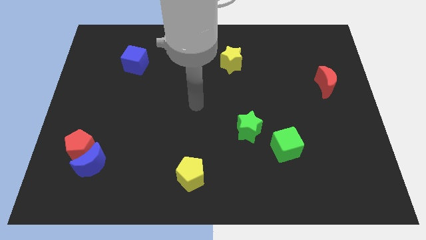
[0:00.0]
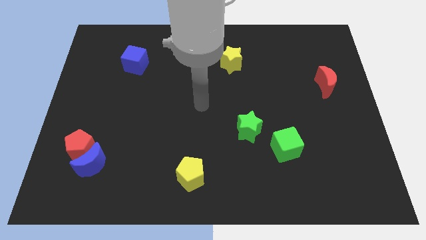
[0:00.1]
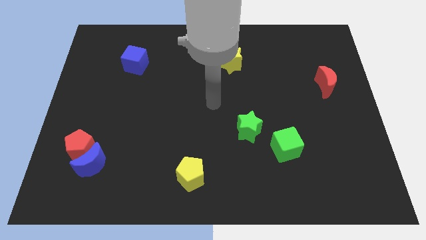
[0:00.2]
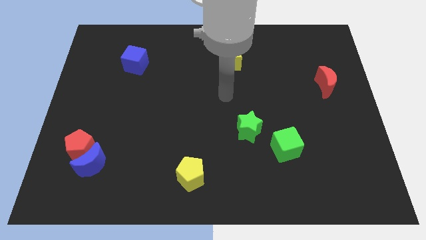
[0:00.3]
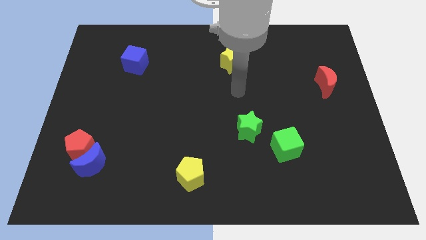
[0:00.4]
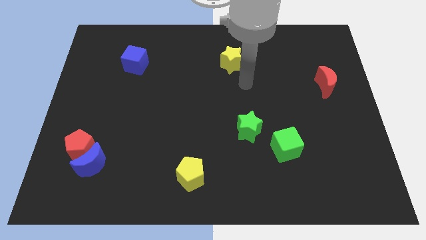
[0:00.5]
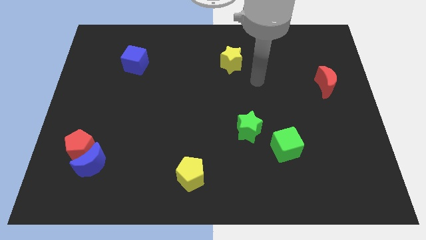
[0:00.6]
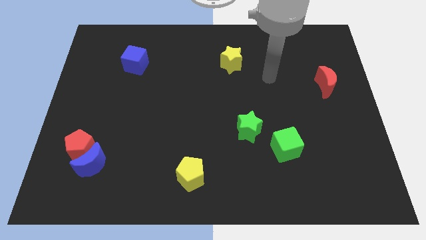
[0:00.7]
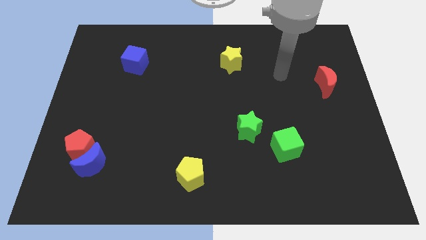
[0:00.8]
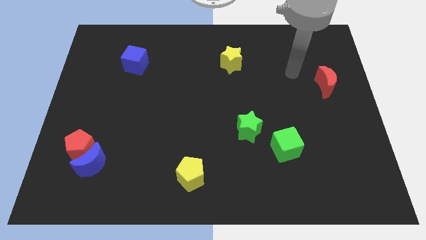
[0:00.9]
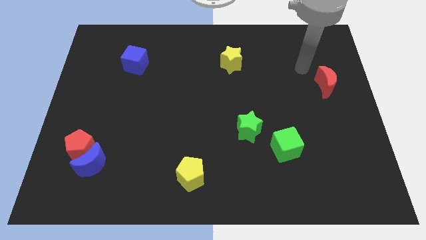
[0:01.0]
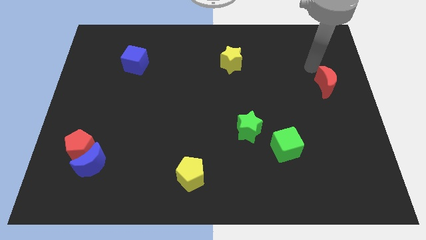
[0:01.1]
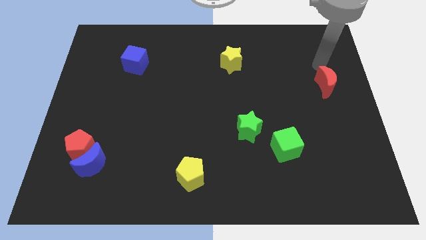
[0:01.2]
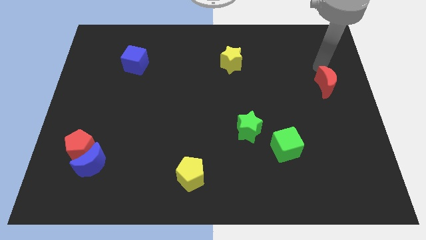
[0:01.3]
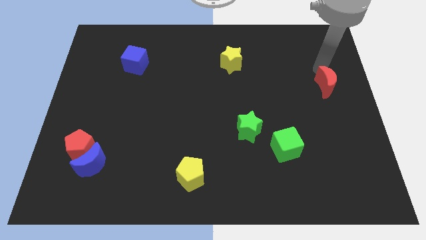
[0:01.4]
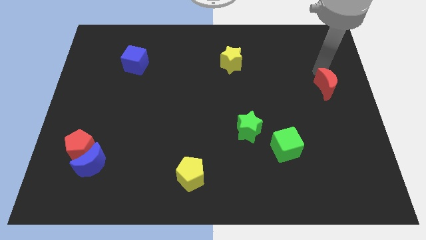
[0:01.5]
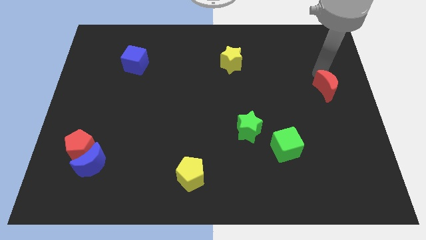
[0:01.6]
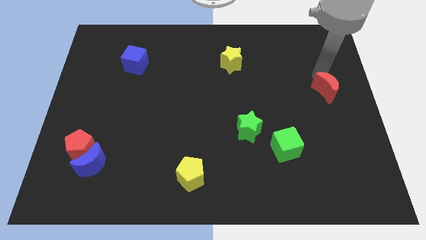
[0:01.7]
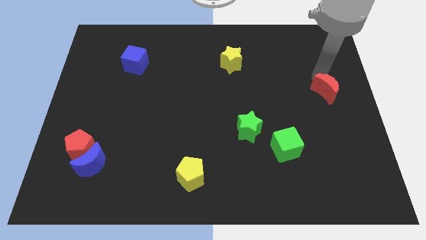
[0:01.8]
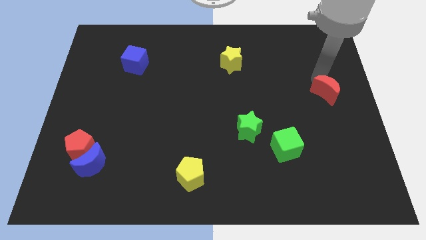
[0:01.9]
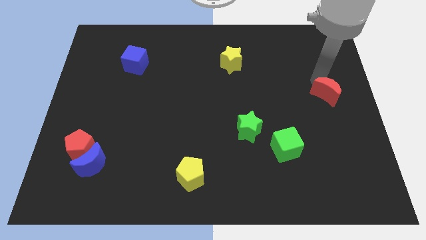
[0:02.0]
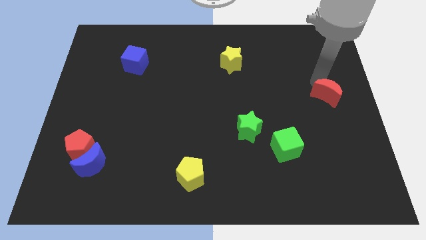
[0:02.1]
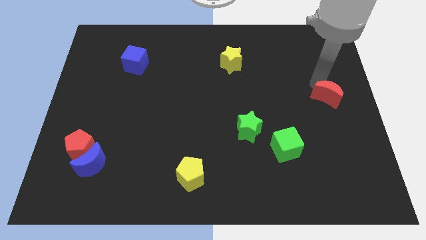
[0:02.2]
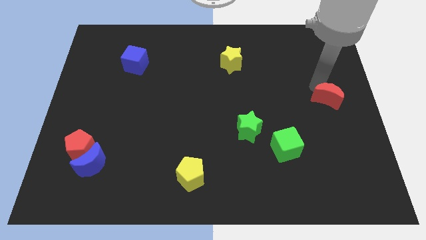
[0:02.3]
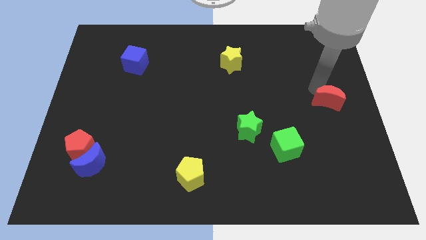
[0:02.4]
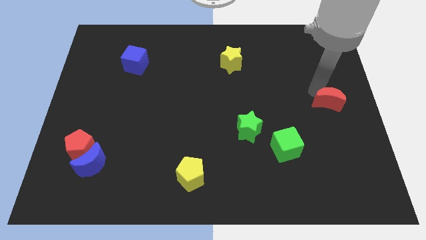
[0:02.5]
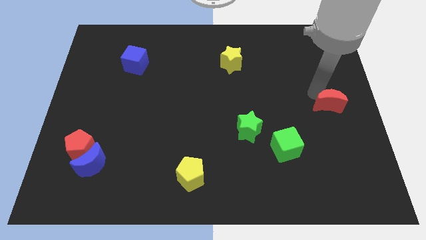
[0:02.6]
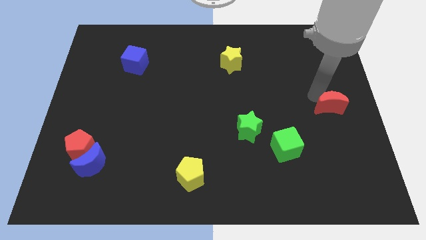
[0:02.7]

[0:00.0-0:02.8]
move the red moon downwards a little

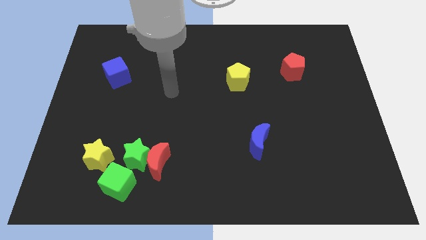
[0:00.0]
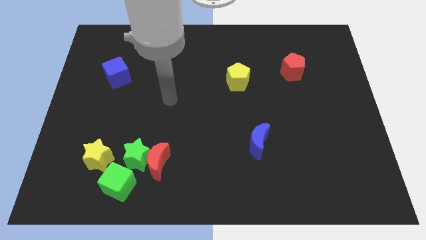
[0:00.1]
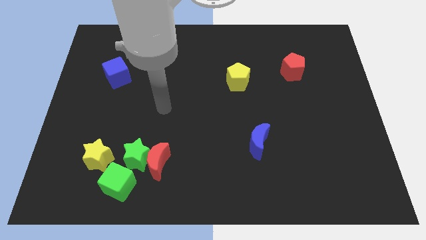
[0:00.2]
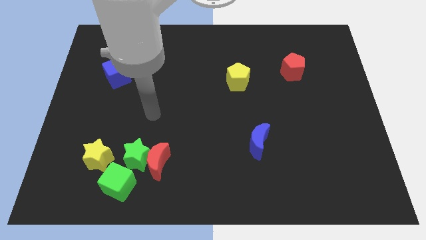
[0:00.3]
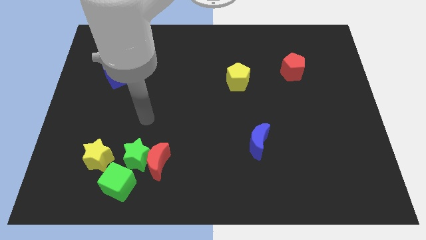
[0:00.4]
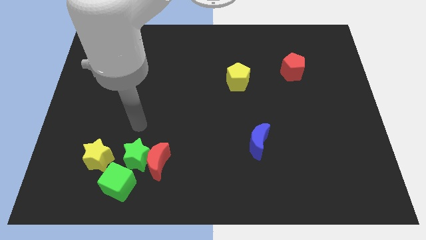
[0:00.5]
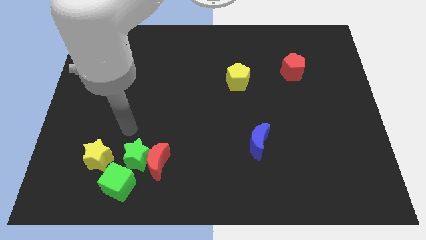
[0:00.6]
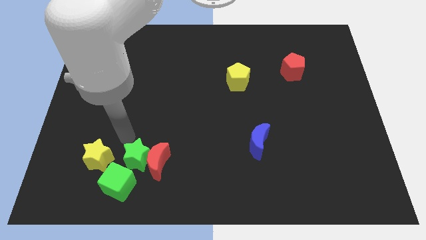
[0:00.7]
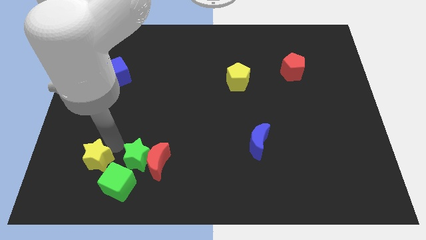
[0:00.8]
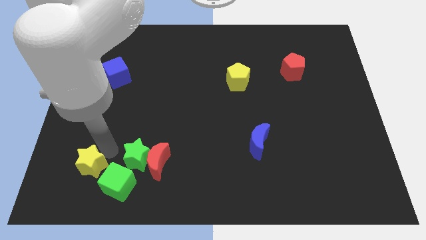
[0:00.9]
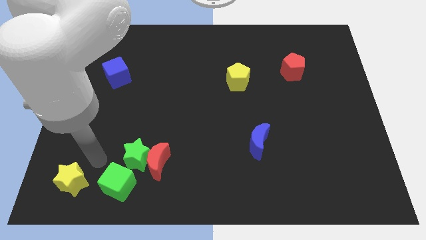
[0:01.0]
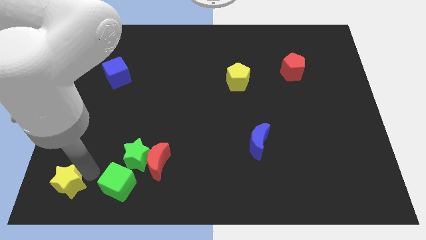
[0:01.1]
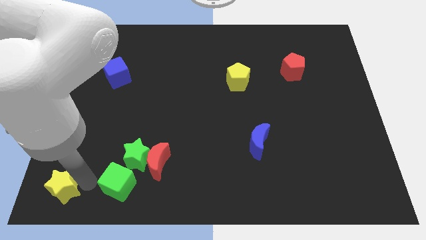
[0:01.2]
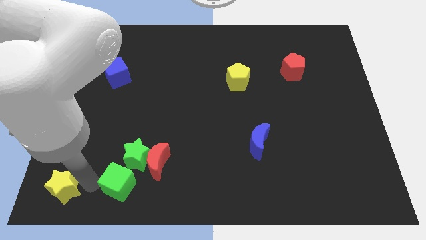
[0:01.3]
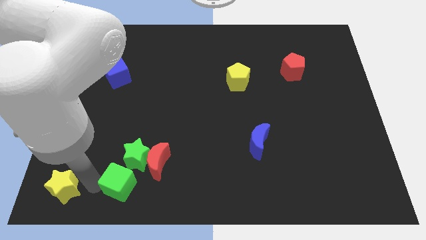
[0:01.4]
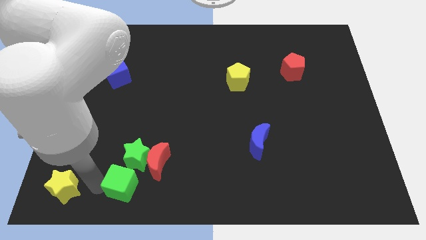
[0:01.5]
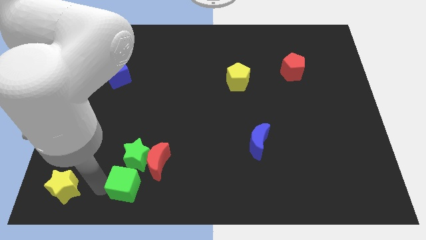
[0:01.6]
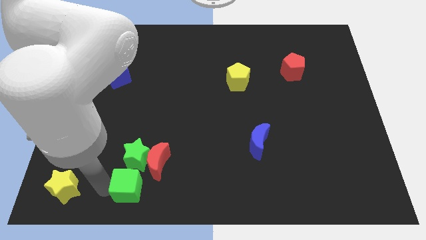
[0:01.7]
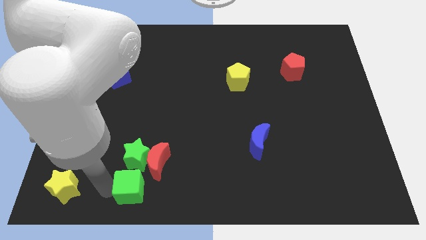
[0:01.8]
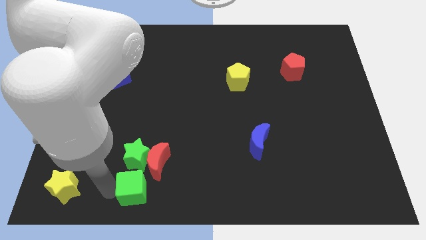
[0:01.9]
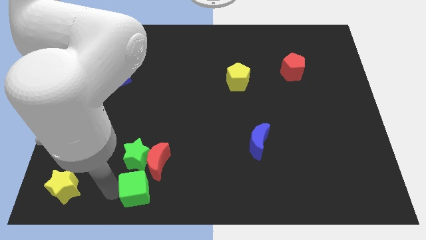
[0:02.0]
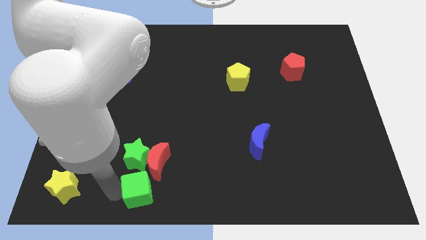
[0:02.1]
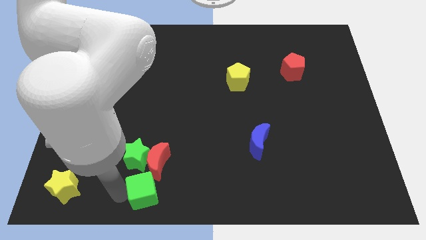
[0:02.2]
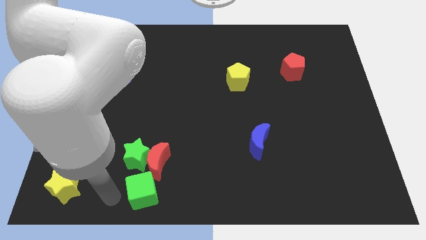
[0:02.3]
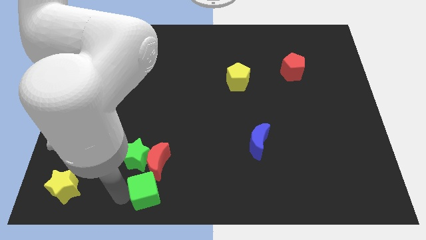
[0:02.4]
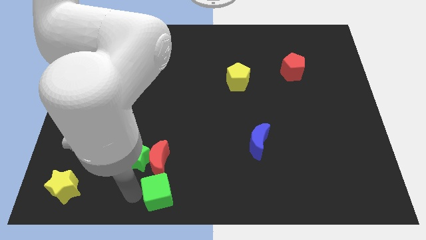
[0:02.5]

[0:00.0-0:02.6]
move the green cube to the right a bit

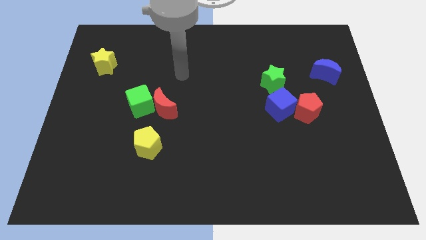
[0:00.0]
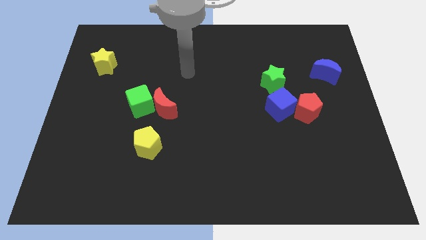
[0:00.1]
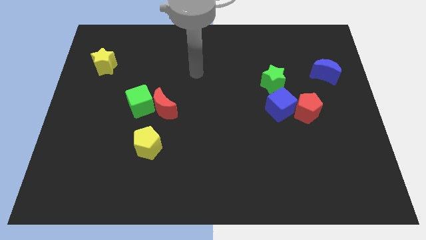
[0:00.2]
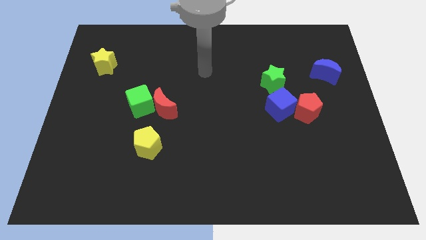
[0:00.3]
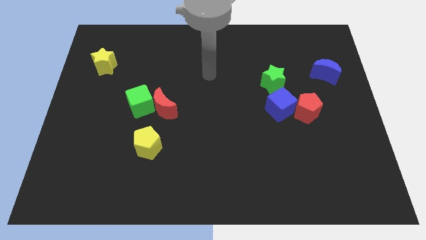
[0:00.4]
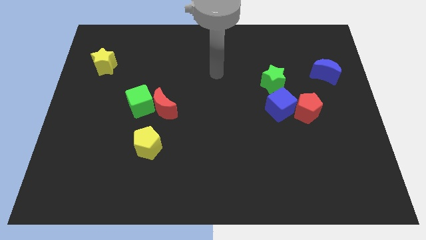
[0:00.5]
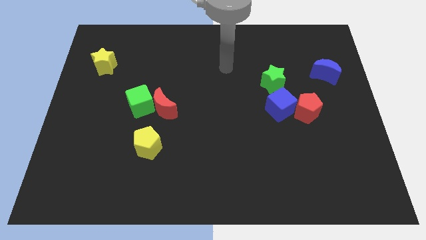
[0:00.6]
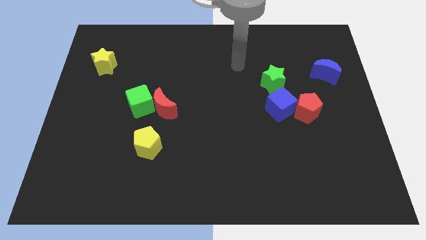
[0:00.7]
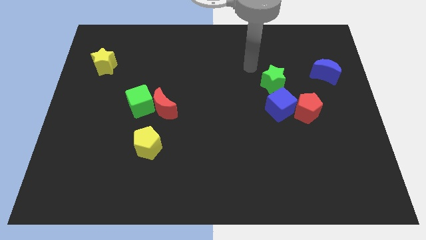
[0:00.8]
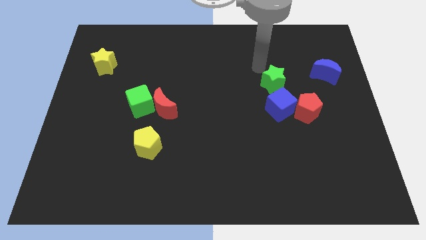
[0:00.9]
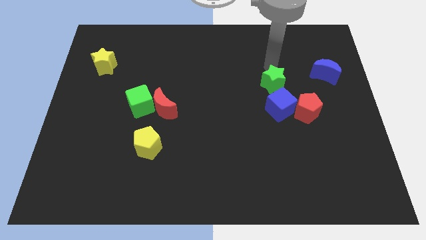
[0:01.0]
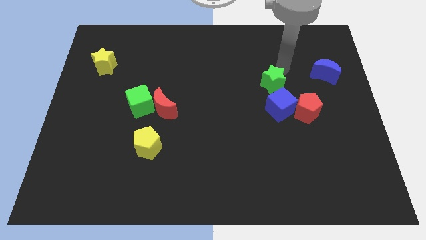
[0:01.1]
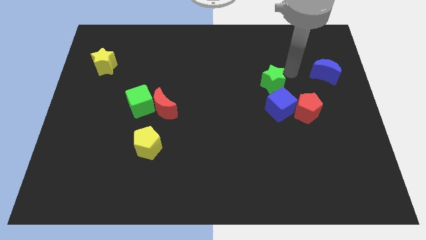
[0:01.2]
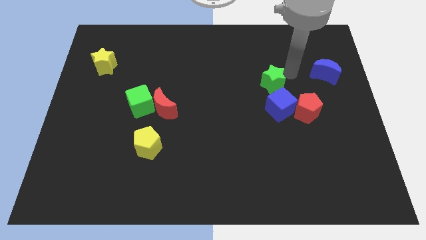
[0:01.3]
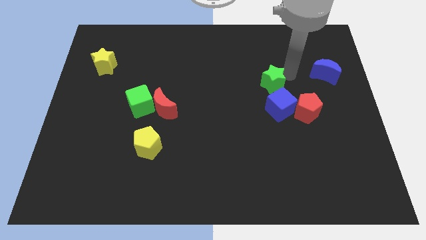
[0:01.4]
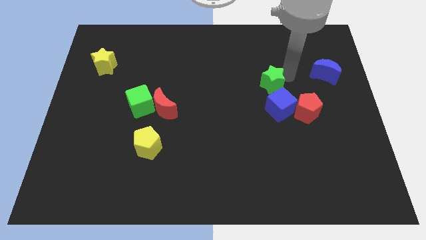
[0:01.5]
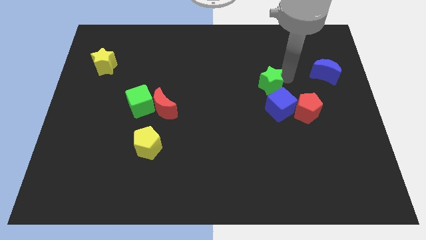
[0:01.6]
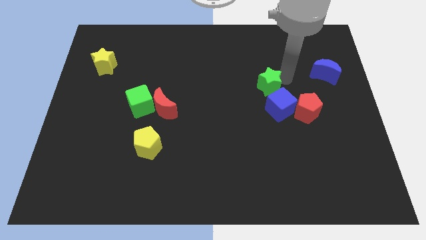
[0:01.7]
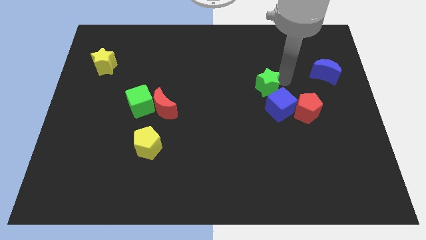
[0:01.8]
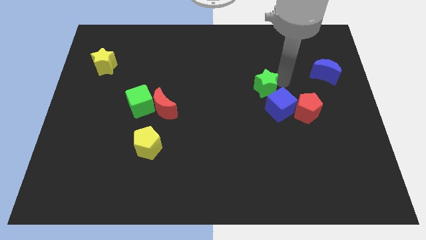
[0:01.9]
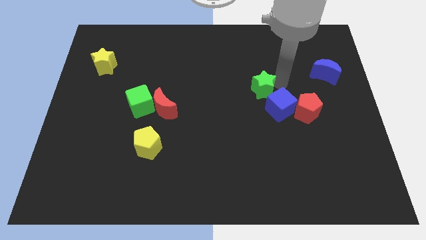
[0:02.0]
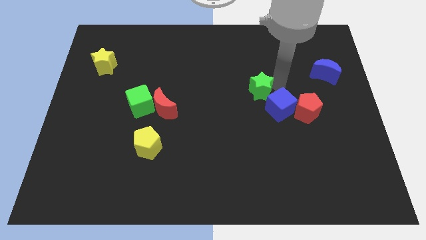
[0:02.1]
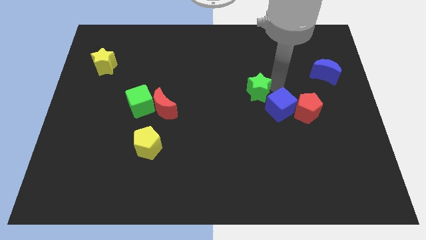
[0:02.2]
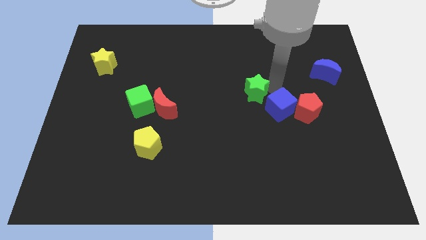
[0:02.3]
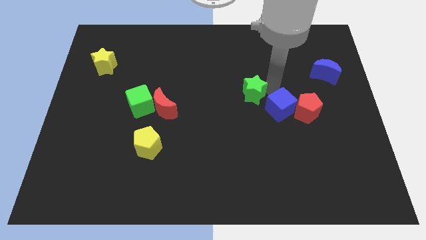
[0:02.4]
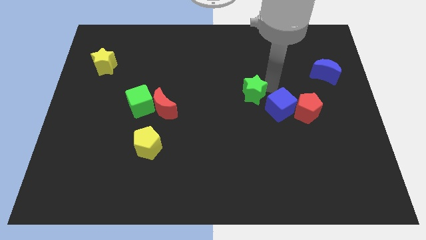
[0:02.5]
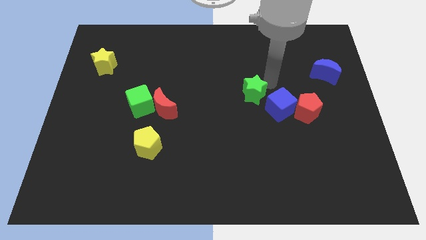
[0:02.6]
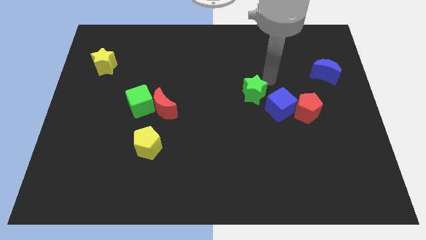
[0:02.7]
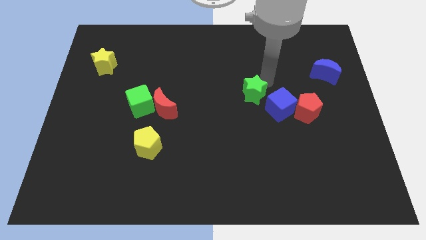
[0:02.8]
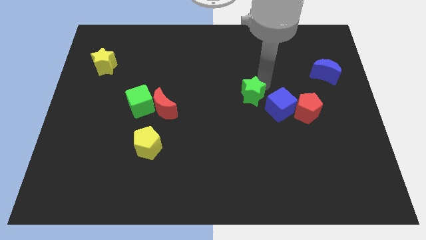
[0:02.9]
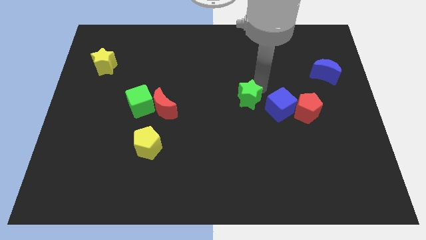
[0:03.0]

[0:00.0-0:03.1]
move the green star a little down and left diagonally
